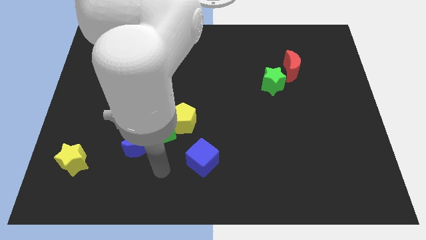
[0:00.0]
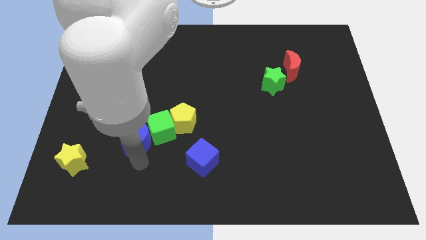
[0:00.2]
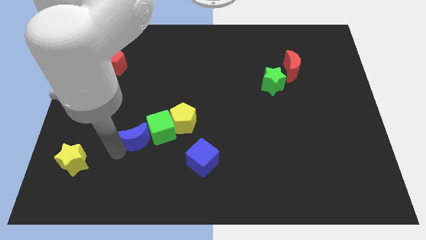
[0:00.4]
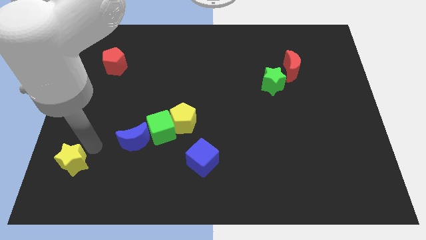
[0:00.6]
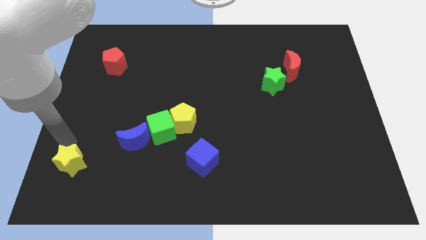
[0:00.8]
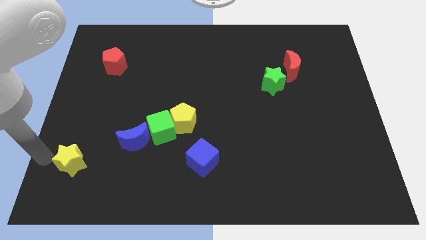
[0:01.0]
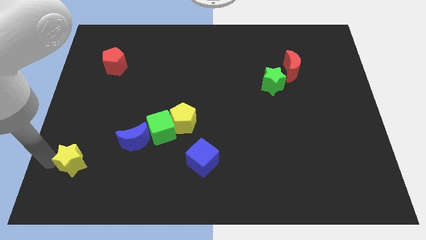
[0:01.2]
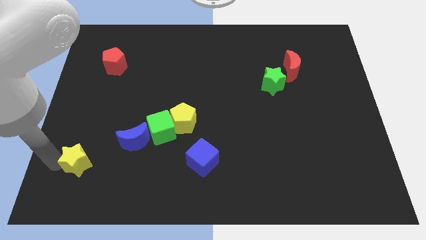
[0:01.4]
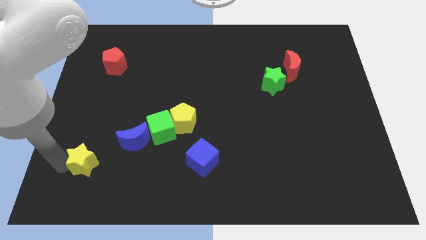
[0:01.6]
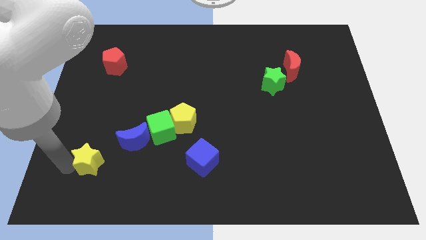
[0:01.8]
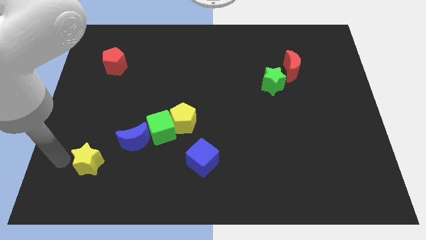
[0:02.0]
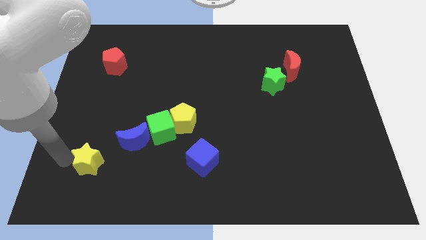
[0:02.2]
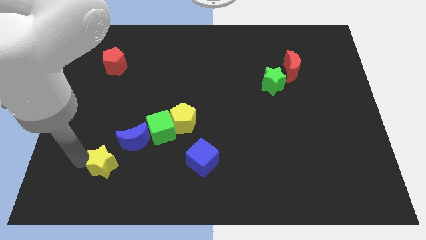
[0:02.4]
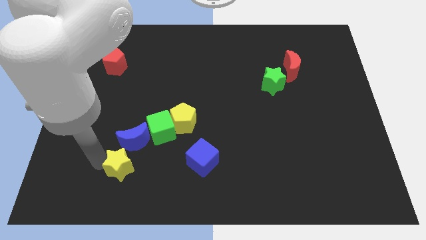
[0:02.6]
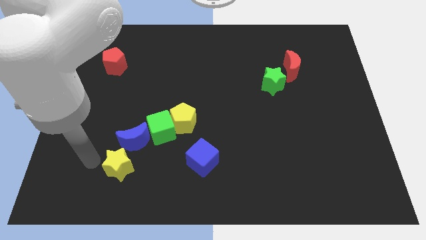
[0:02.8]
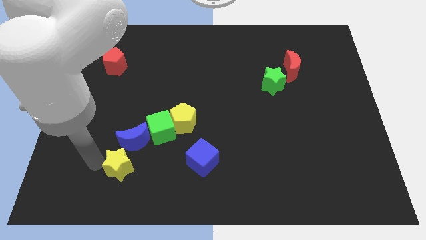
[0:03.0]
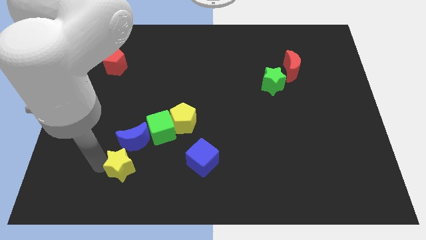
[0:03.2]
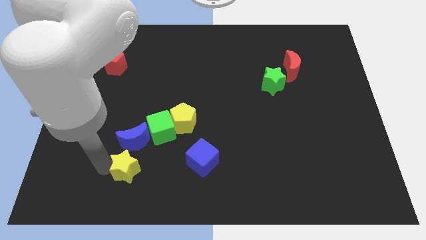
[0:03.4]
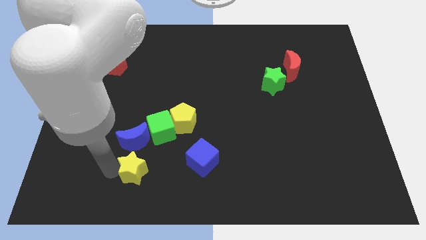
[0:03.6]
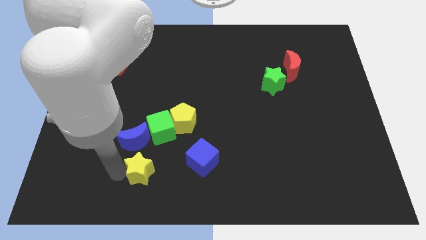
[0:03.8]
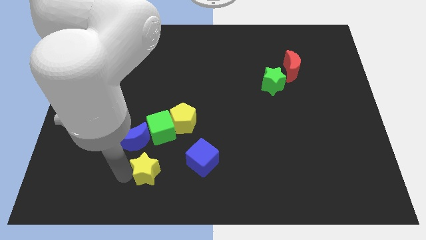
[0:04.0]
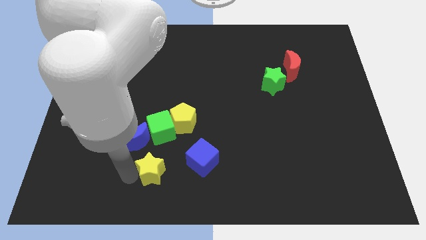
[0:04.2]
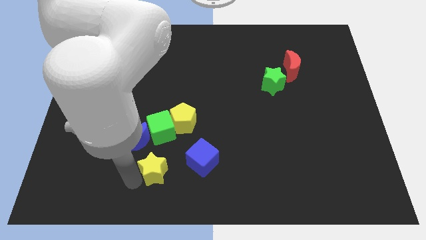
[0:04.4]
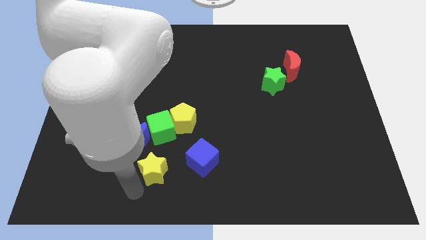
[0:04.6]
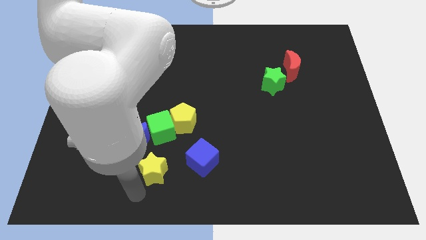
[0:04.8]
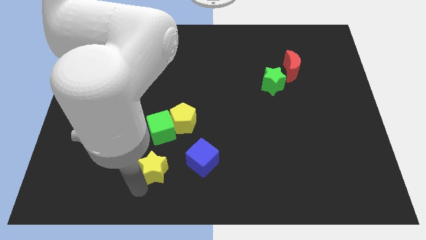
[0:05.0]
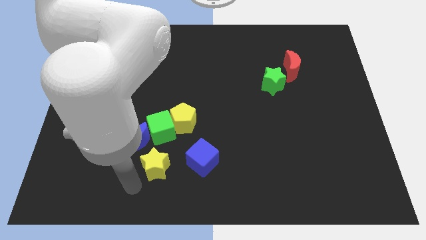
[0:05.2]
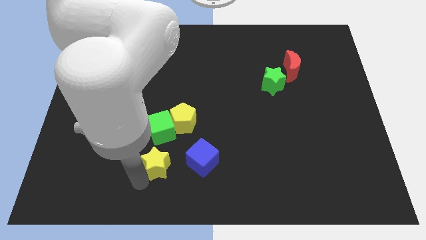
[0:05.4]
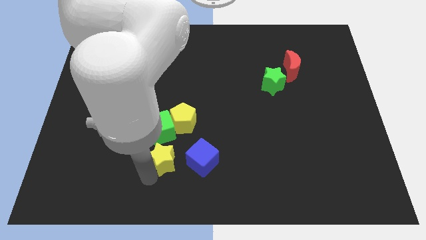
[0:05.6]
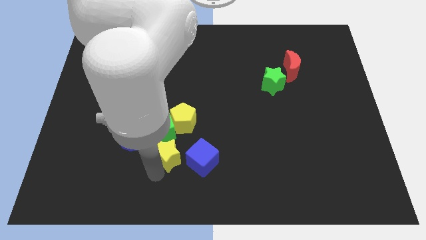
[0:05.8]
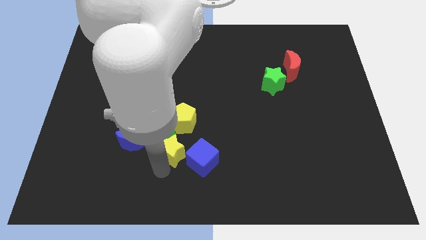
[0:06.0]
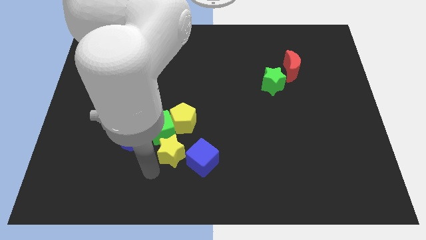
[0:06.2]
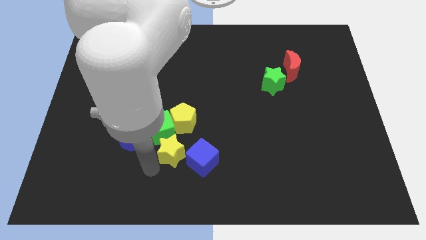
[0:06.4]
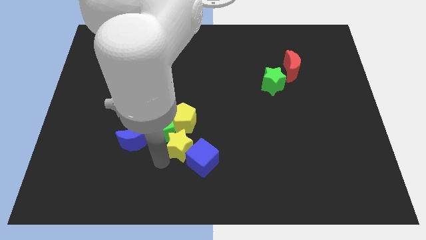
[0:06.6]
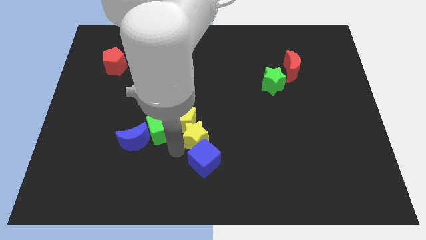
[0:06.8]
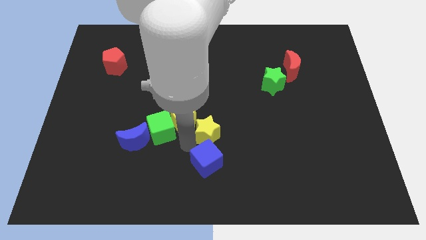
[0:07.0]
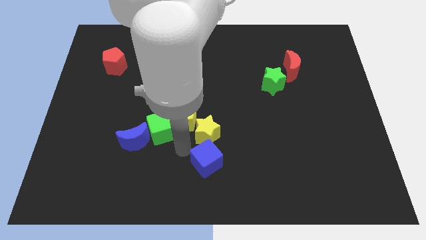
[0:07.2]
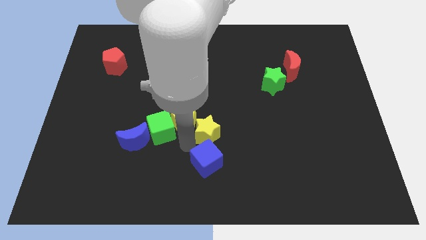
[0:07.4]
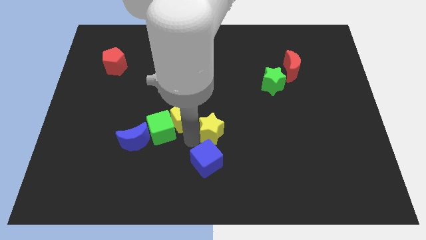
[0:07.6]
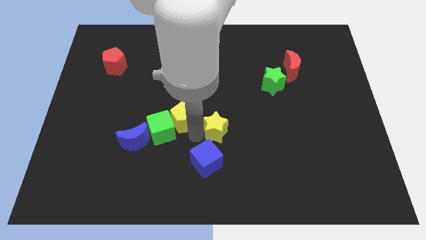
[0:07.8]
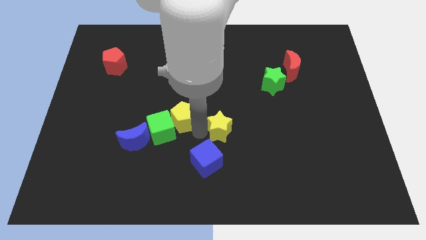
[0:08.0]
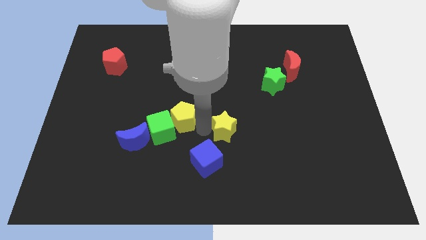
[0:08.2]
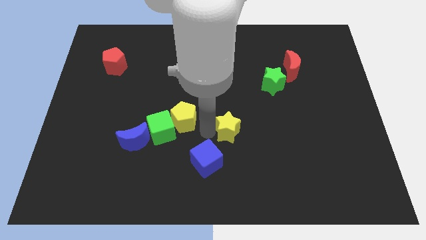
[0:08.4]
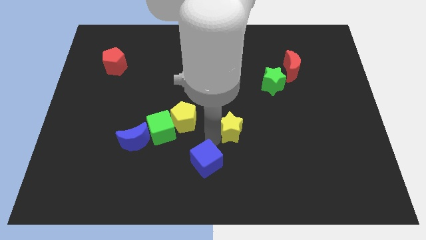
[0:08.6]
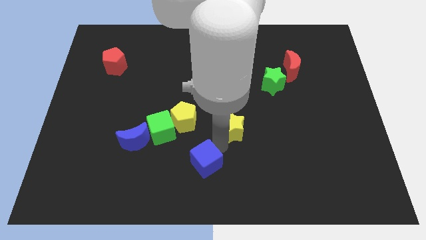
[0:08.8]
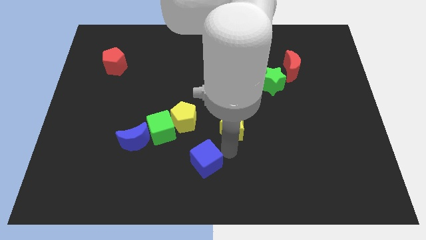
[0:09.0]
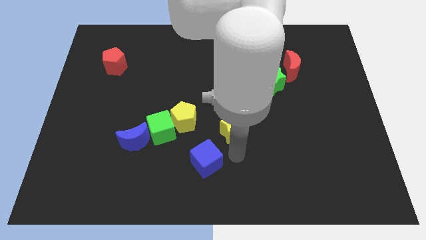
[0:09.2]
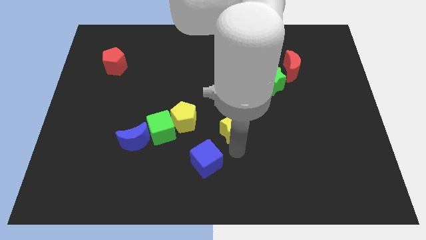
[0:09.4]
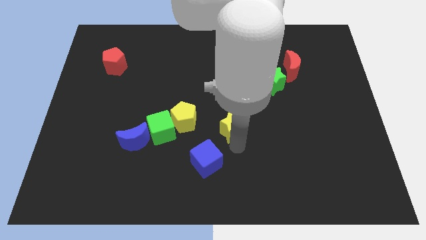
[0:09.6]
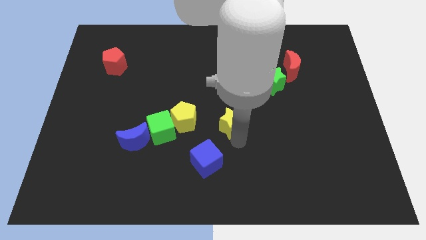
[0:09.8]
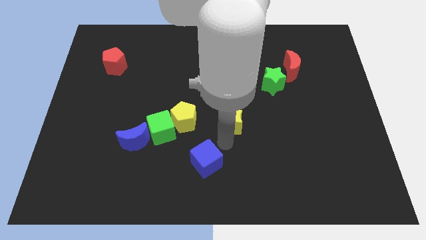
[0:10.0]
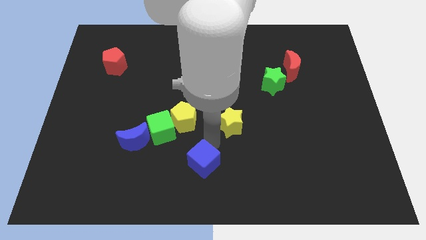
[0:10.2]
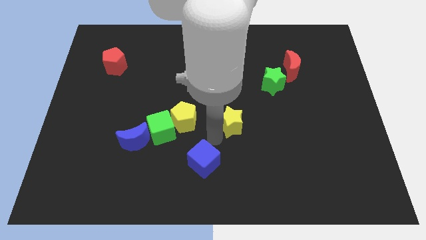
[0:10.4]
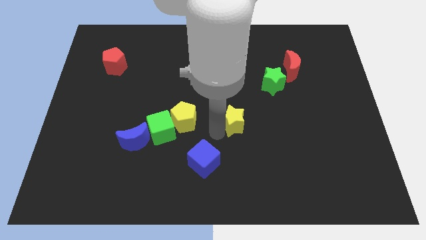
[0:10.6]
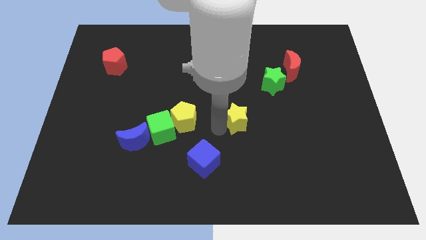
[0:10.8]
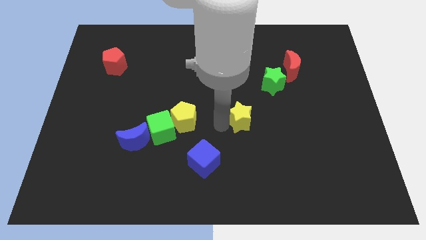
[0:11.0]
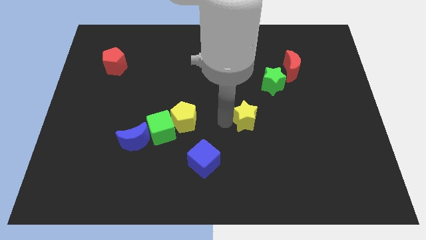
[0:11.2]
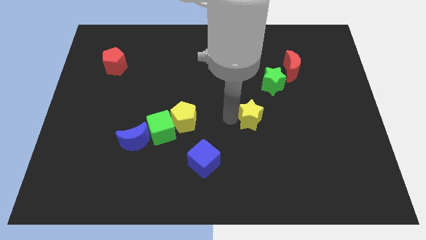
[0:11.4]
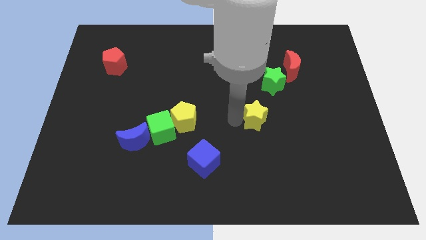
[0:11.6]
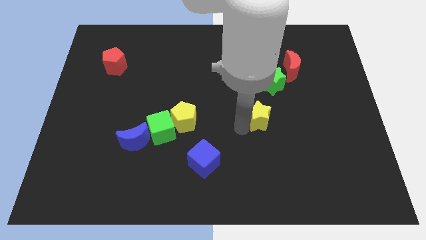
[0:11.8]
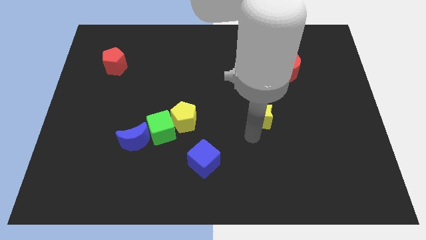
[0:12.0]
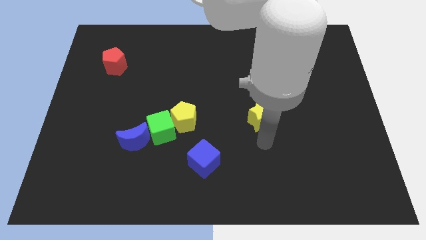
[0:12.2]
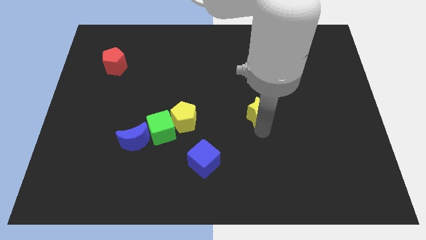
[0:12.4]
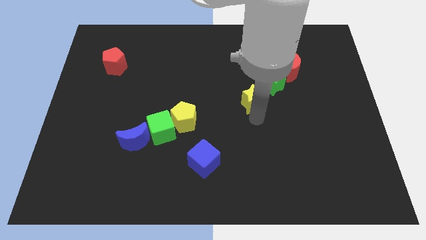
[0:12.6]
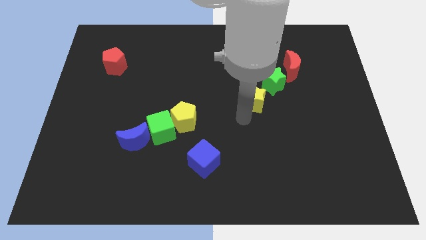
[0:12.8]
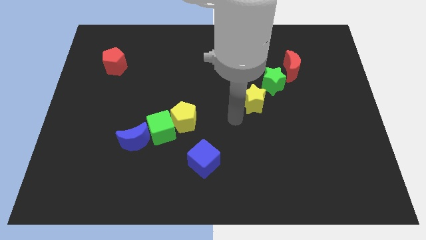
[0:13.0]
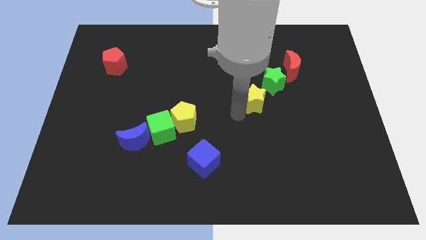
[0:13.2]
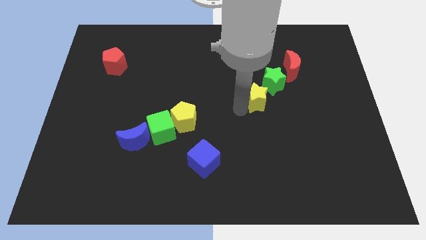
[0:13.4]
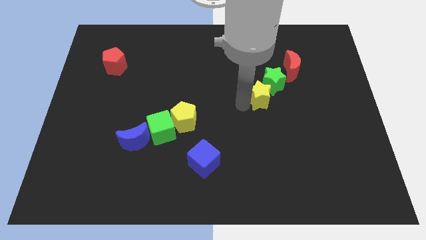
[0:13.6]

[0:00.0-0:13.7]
move the yellow star to the green star

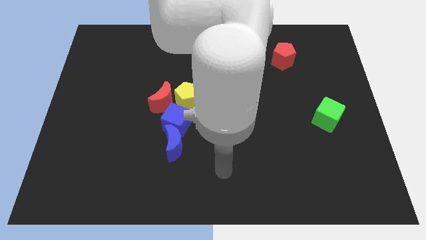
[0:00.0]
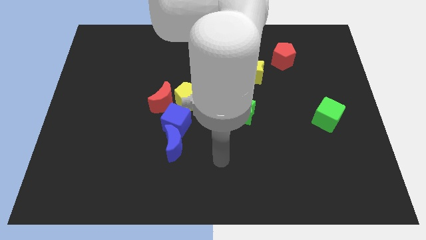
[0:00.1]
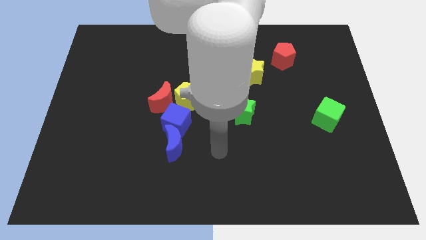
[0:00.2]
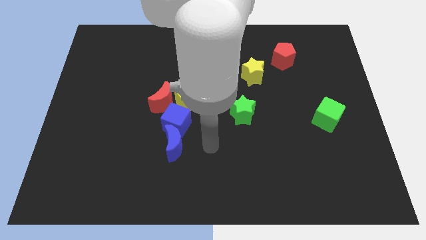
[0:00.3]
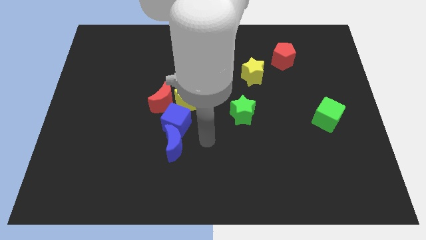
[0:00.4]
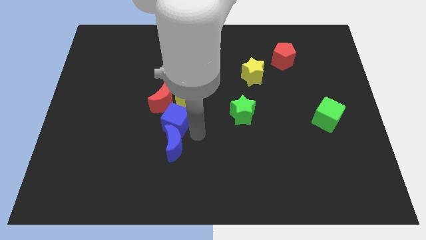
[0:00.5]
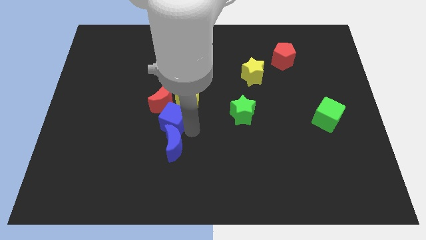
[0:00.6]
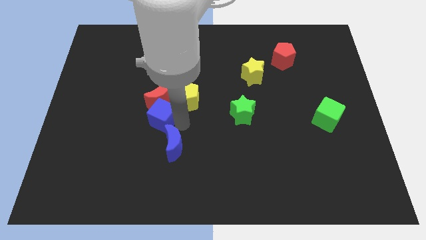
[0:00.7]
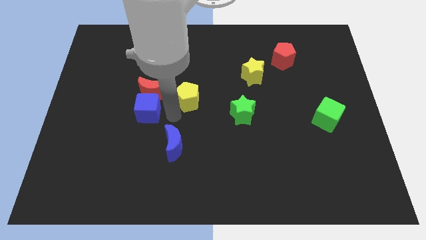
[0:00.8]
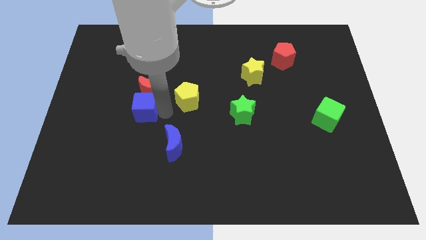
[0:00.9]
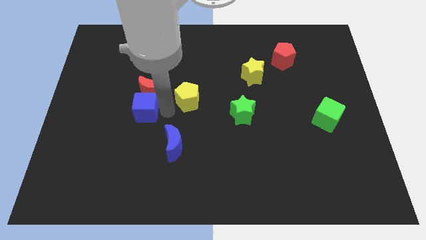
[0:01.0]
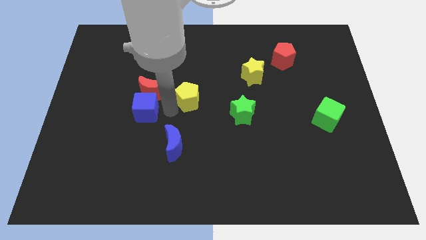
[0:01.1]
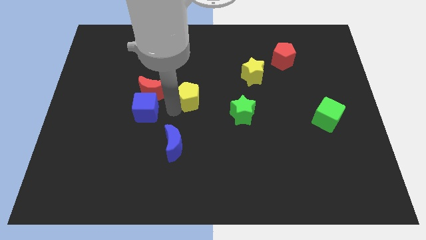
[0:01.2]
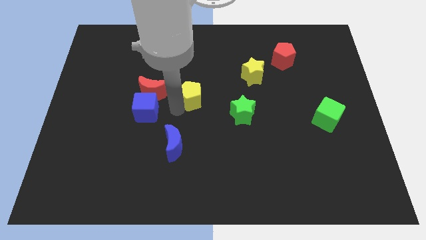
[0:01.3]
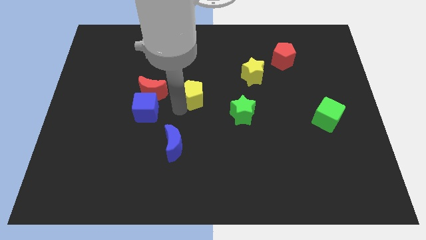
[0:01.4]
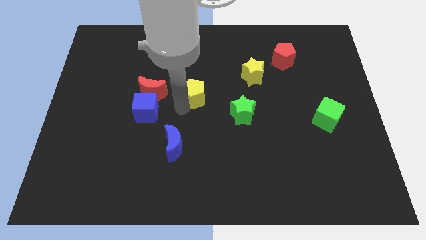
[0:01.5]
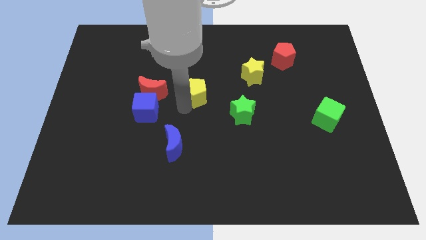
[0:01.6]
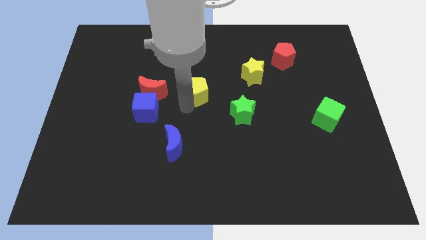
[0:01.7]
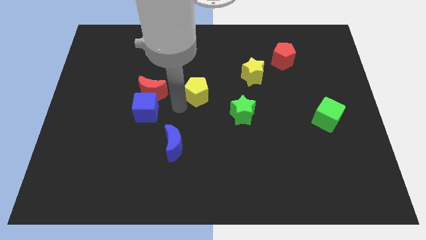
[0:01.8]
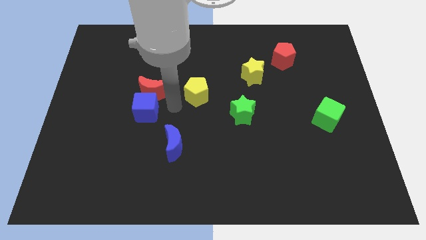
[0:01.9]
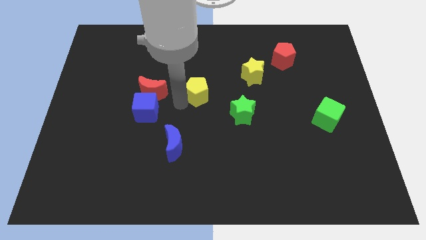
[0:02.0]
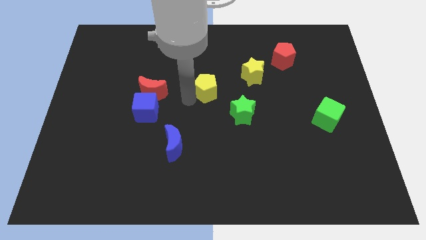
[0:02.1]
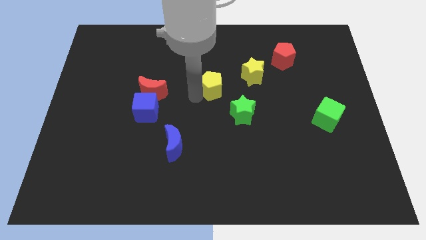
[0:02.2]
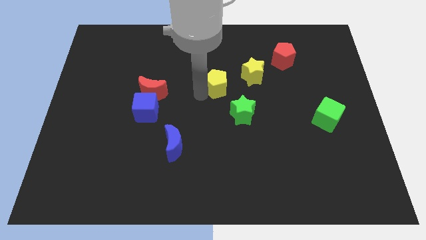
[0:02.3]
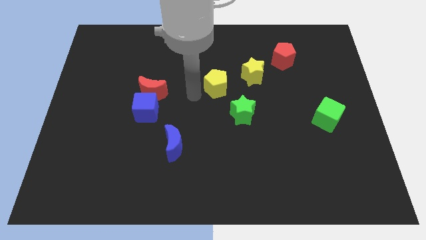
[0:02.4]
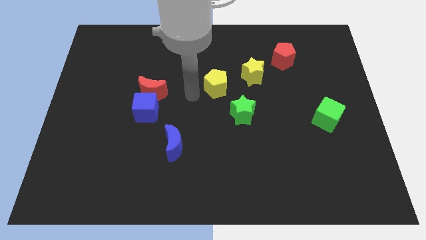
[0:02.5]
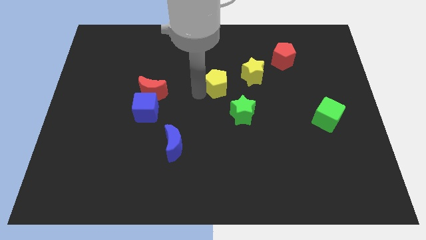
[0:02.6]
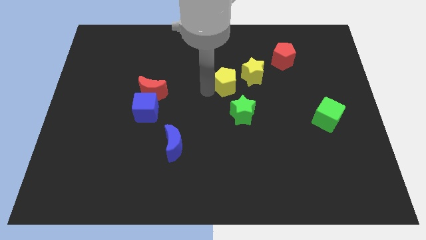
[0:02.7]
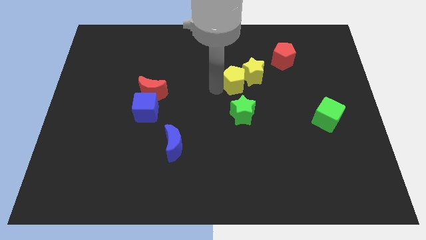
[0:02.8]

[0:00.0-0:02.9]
slide the yellow pentagon next to the yellow star
